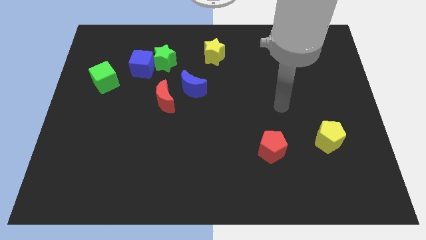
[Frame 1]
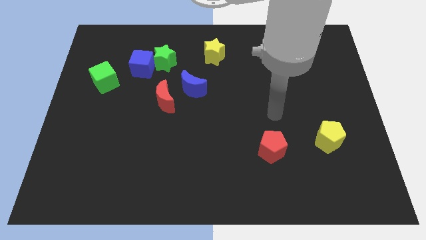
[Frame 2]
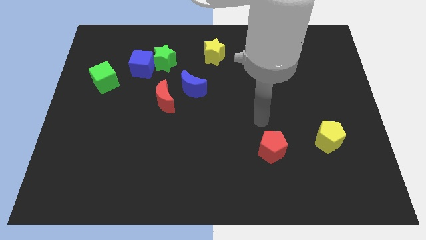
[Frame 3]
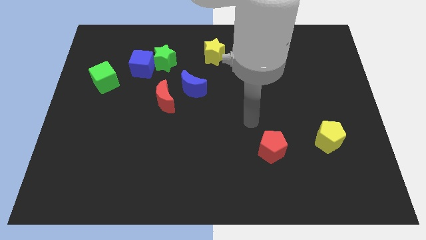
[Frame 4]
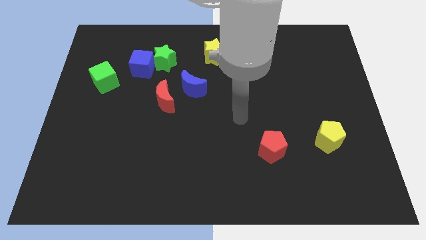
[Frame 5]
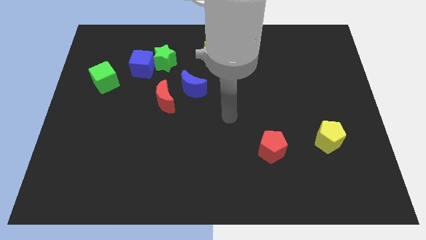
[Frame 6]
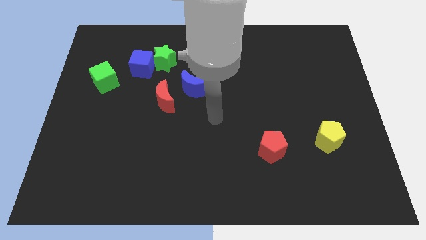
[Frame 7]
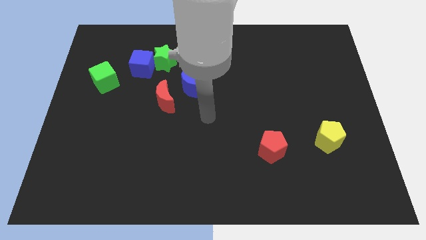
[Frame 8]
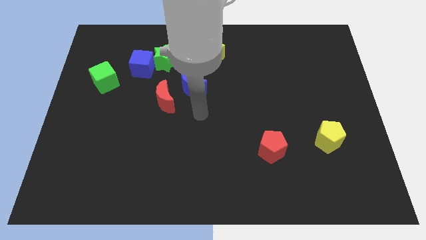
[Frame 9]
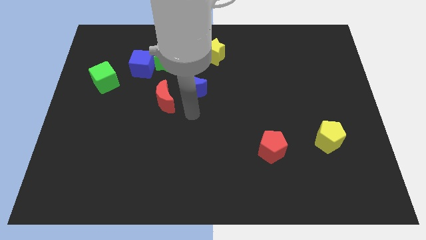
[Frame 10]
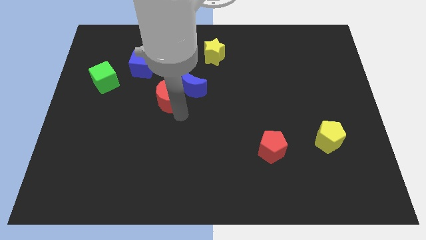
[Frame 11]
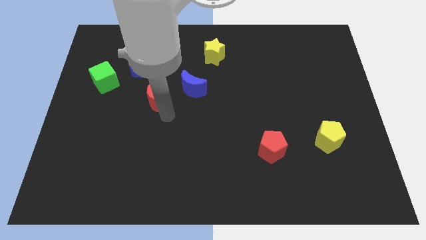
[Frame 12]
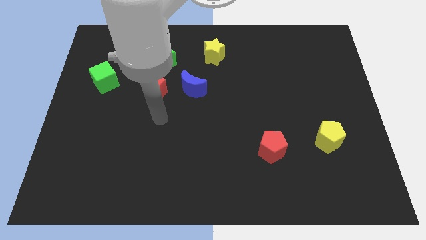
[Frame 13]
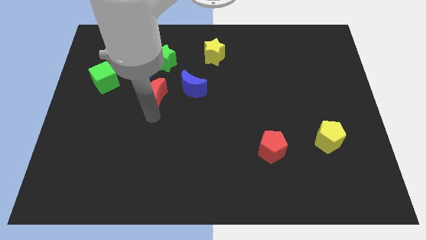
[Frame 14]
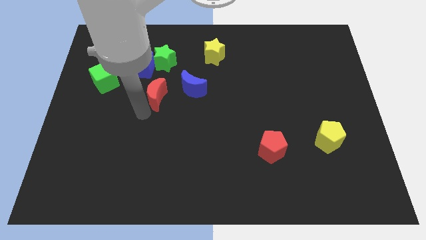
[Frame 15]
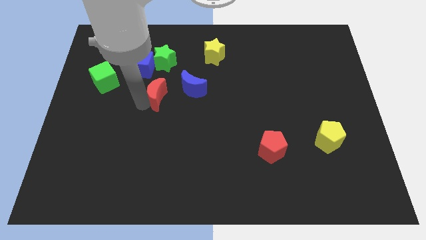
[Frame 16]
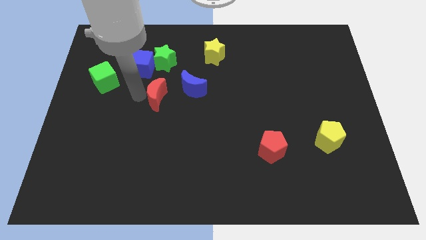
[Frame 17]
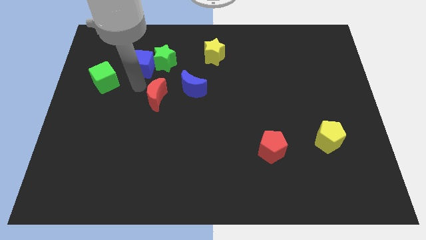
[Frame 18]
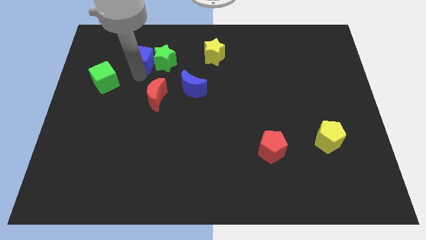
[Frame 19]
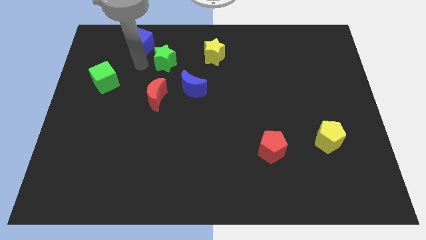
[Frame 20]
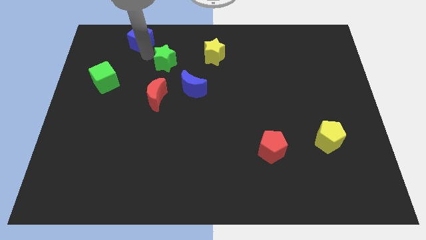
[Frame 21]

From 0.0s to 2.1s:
move the green star away from the blue cube

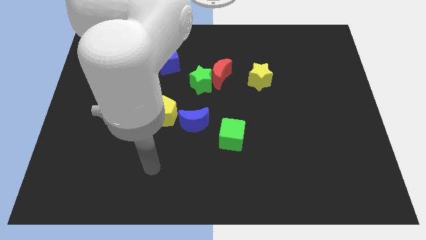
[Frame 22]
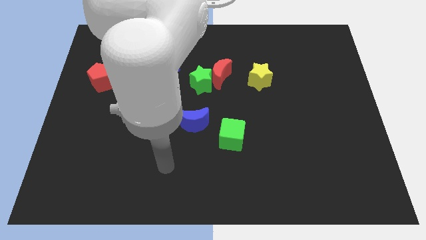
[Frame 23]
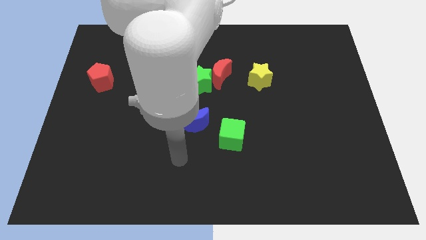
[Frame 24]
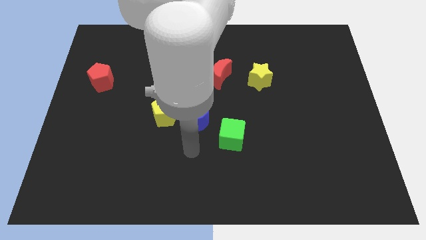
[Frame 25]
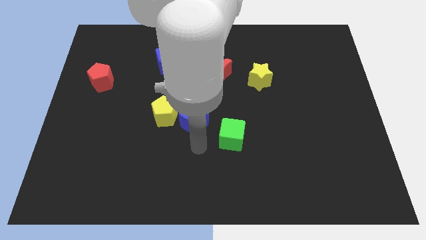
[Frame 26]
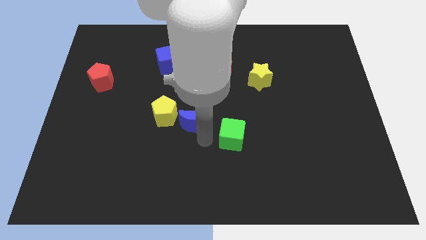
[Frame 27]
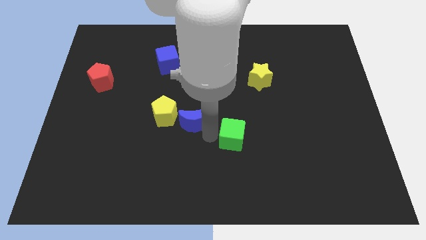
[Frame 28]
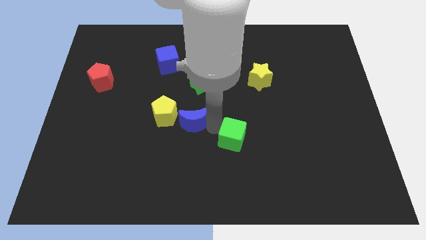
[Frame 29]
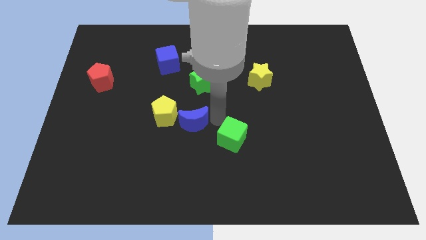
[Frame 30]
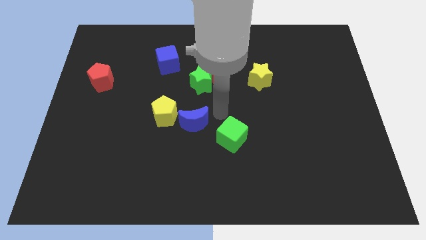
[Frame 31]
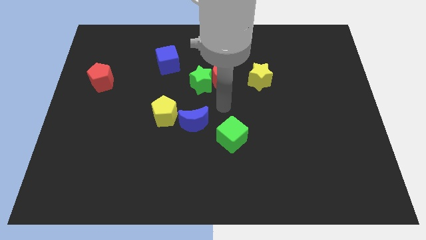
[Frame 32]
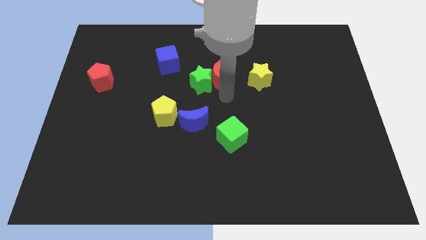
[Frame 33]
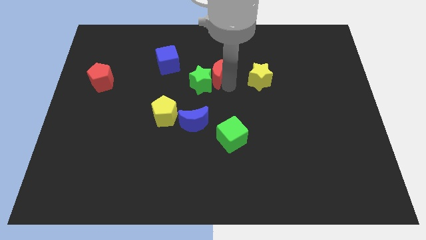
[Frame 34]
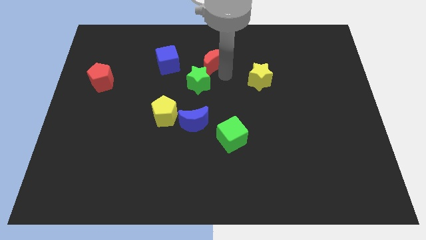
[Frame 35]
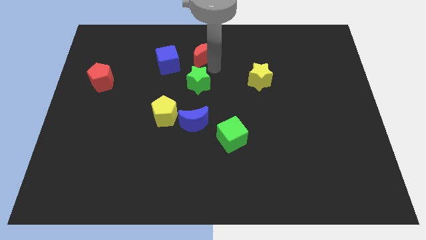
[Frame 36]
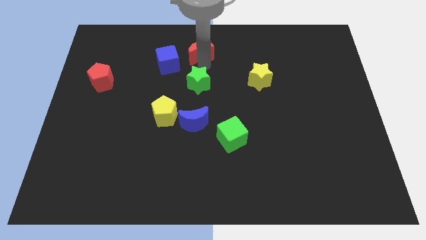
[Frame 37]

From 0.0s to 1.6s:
separate the green star from the red moon

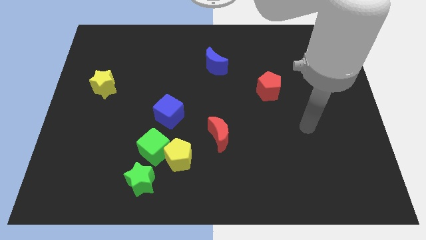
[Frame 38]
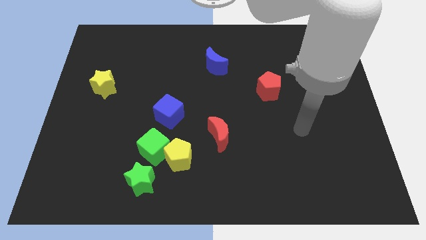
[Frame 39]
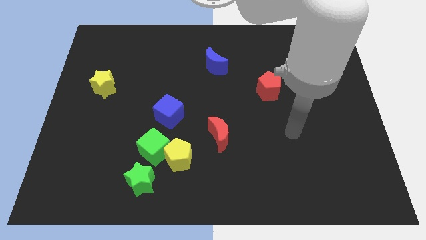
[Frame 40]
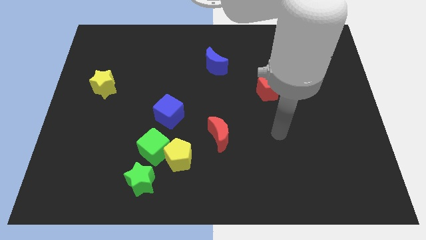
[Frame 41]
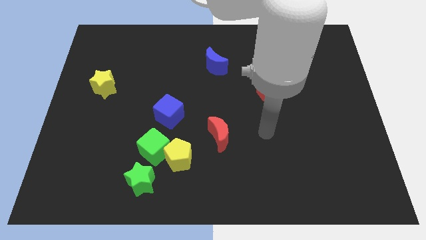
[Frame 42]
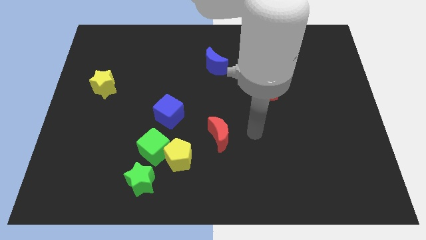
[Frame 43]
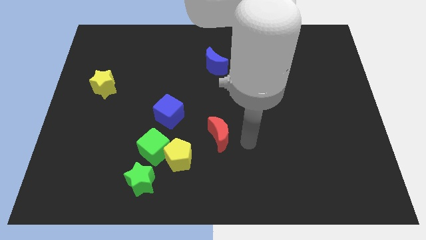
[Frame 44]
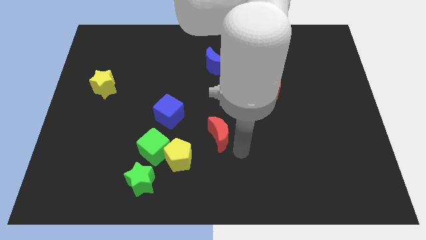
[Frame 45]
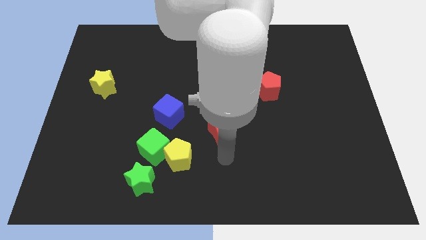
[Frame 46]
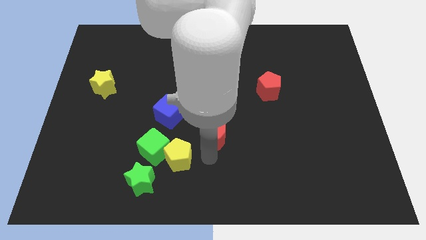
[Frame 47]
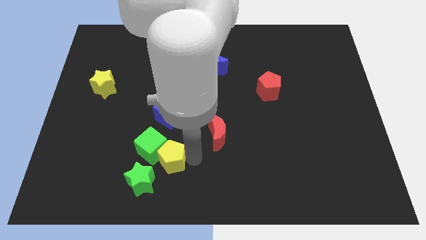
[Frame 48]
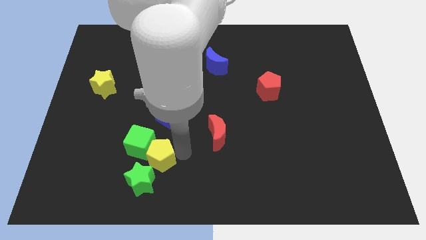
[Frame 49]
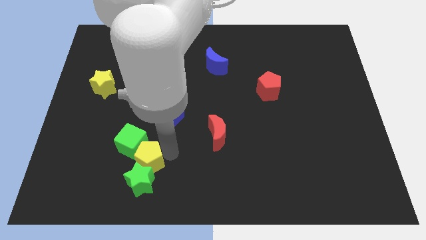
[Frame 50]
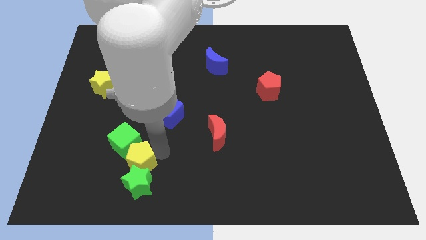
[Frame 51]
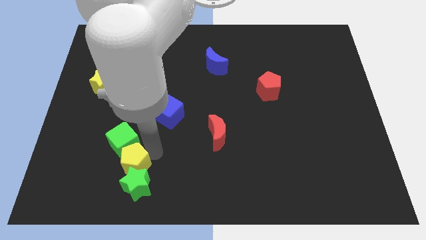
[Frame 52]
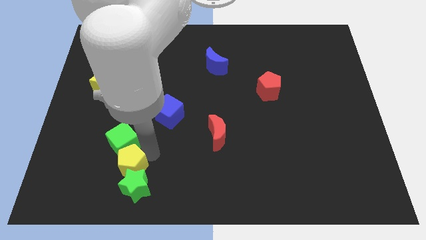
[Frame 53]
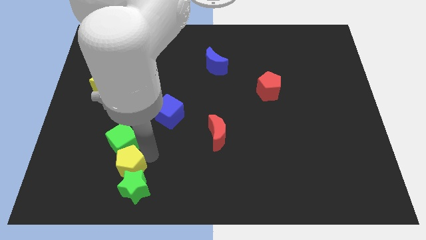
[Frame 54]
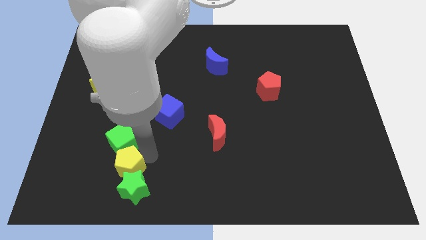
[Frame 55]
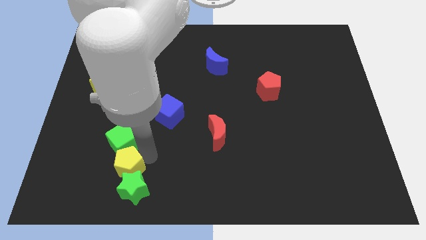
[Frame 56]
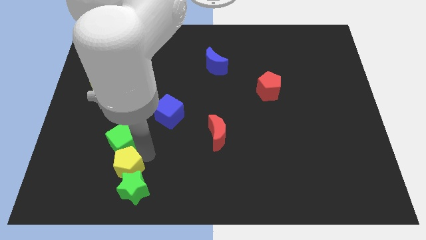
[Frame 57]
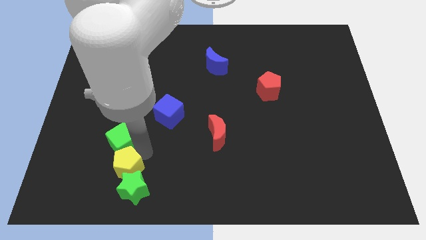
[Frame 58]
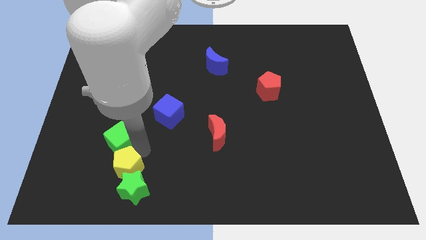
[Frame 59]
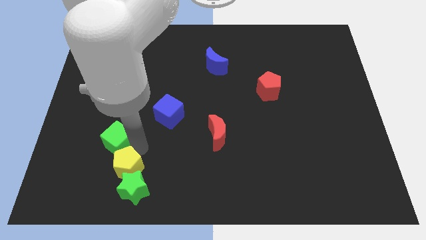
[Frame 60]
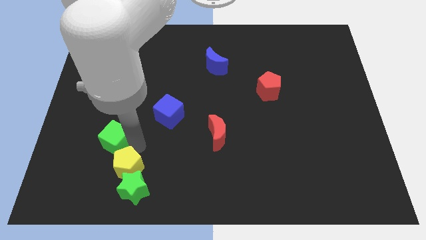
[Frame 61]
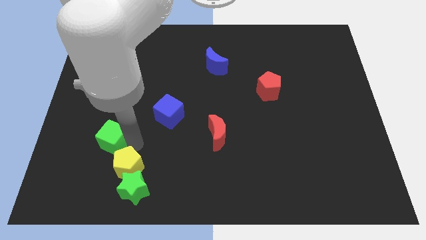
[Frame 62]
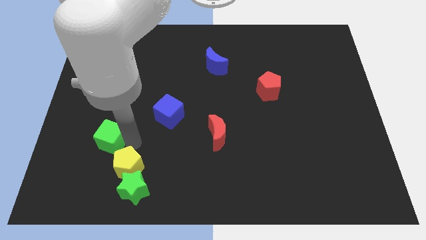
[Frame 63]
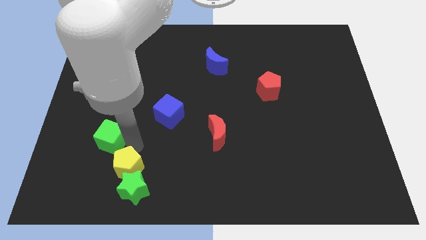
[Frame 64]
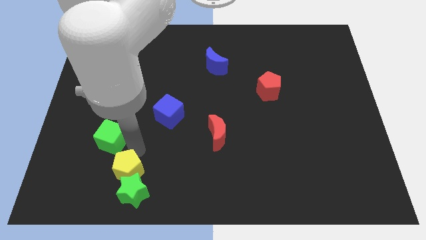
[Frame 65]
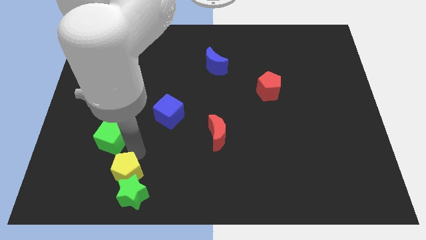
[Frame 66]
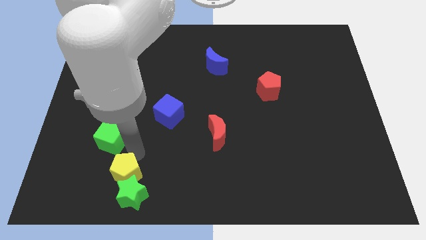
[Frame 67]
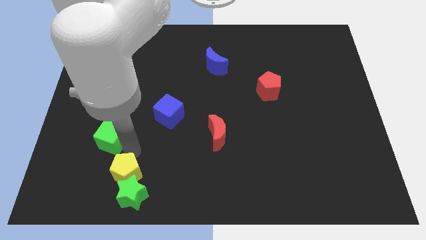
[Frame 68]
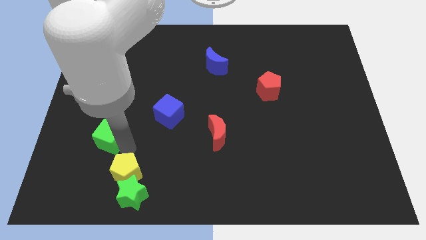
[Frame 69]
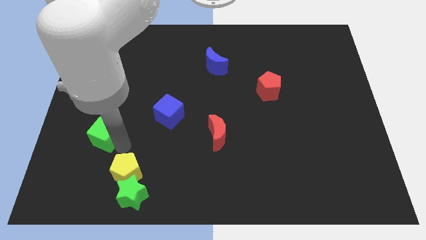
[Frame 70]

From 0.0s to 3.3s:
pull the green cube apart from the group

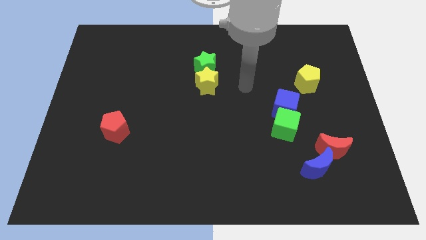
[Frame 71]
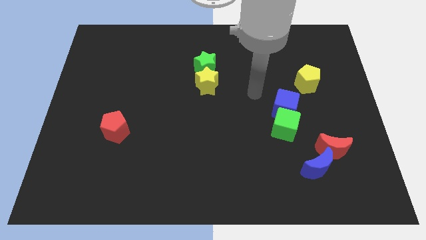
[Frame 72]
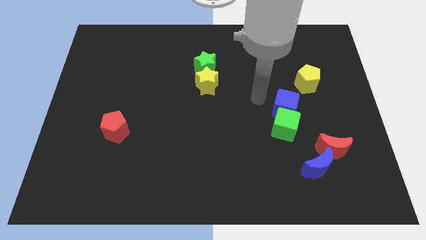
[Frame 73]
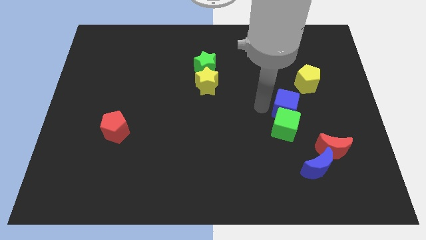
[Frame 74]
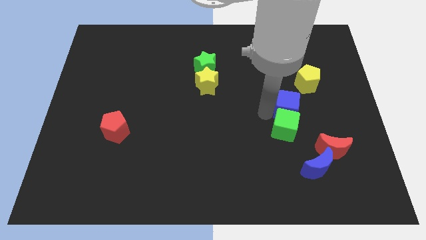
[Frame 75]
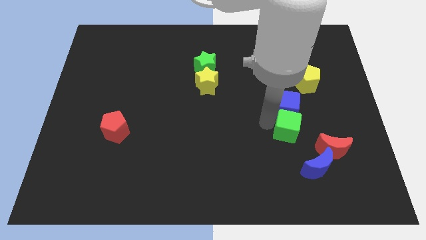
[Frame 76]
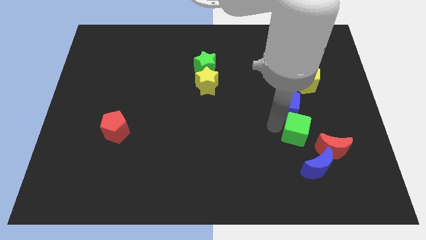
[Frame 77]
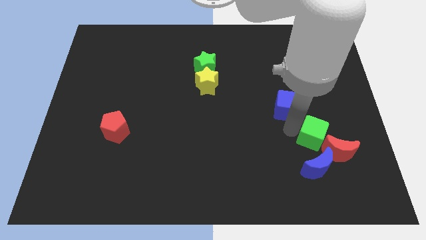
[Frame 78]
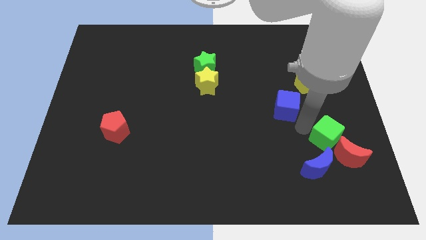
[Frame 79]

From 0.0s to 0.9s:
move the blue cube away from the green cube

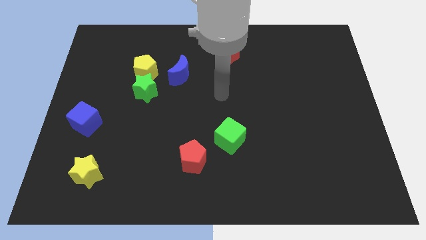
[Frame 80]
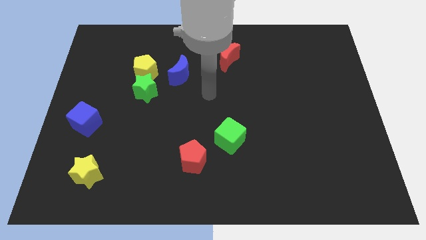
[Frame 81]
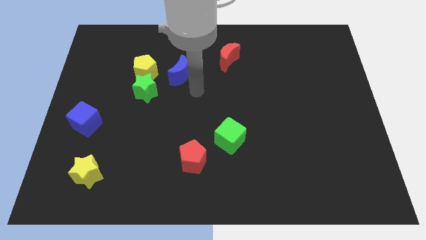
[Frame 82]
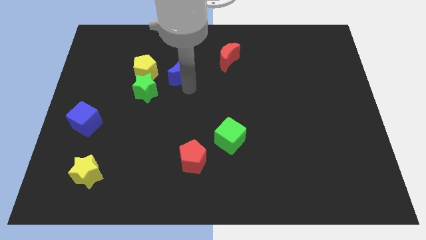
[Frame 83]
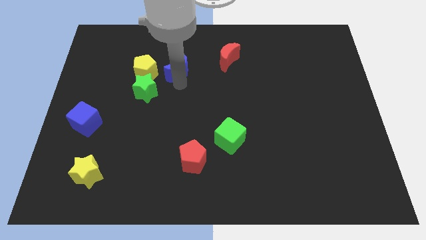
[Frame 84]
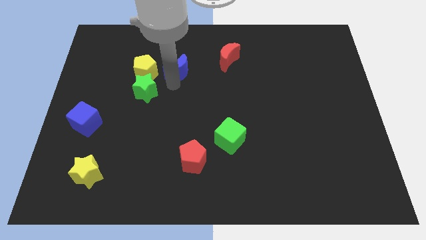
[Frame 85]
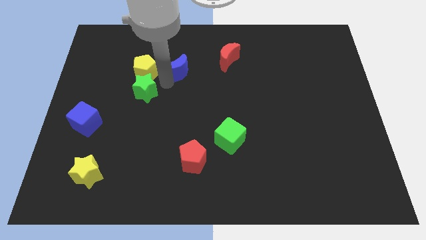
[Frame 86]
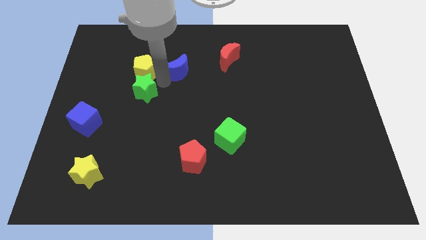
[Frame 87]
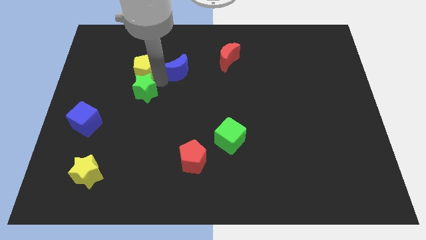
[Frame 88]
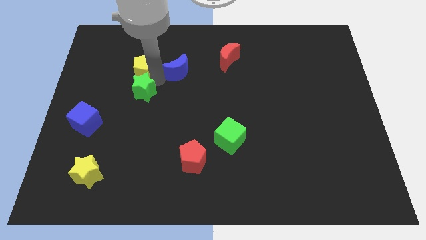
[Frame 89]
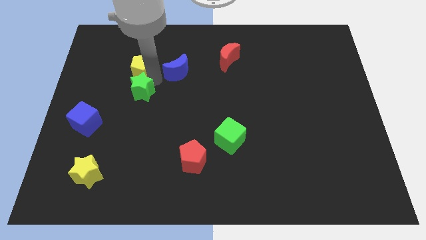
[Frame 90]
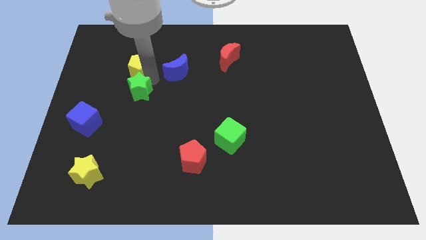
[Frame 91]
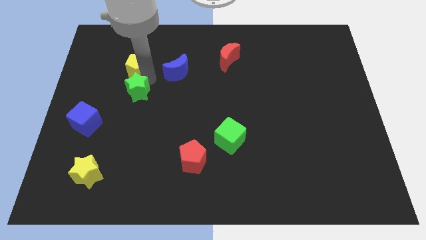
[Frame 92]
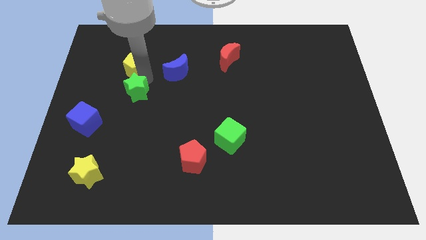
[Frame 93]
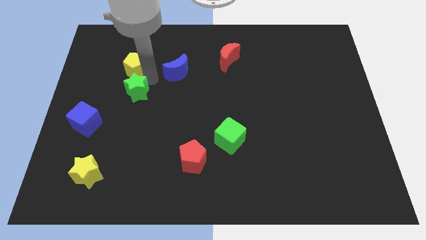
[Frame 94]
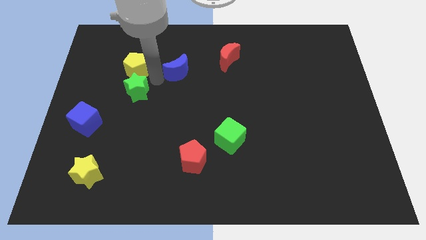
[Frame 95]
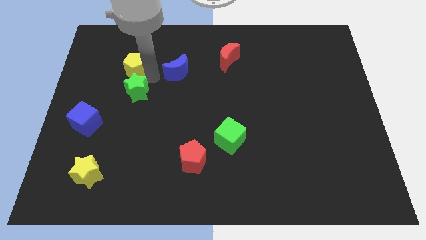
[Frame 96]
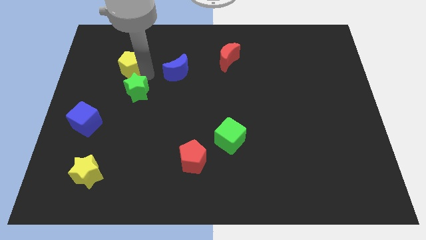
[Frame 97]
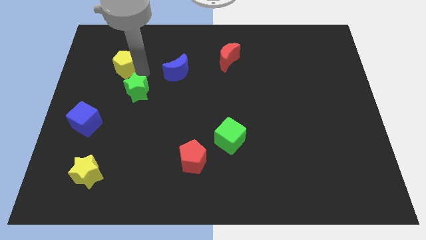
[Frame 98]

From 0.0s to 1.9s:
pull the yellow pentagon apart from the green star and blue moon
